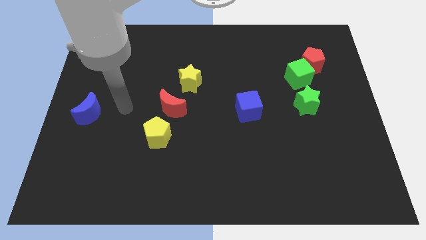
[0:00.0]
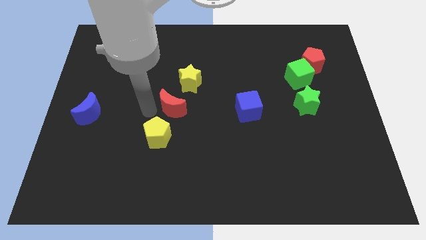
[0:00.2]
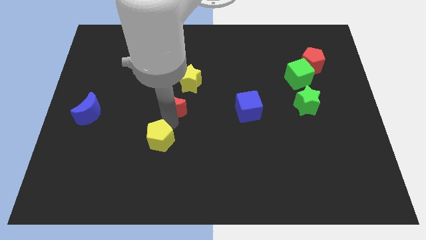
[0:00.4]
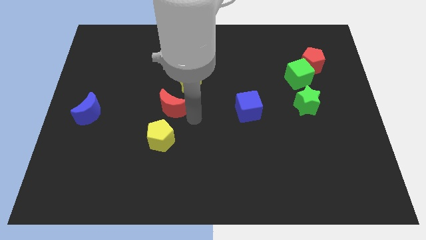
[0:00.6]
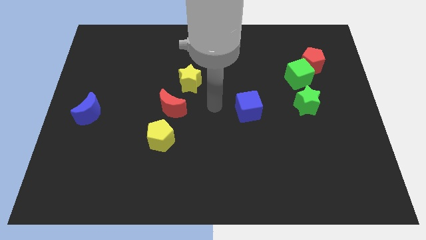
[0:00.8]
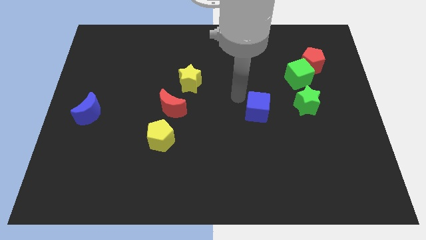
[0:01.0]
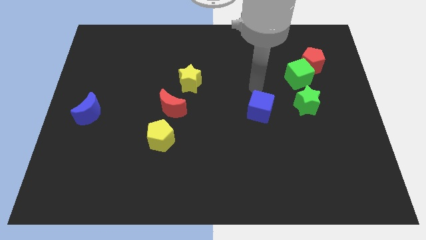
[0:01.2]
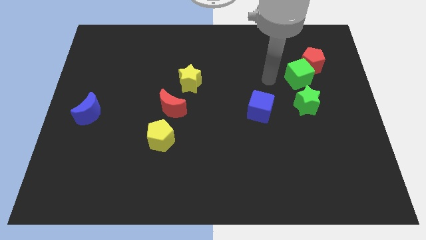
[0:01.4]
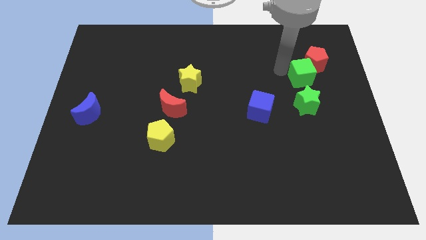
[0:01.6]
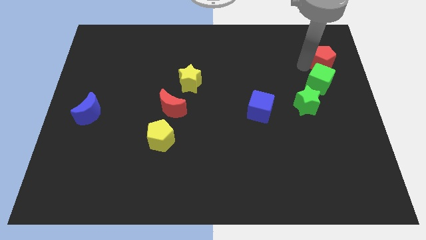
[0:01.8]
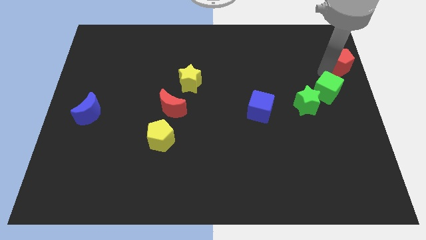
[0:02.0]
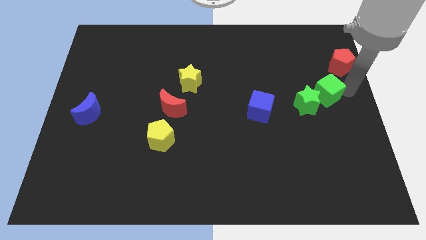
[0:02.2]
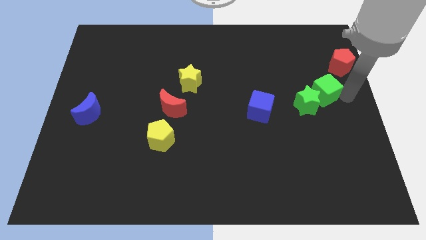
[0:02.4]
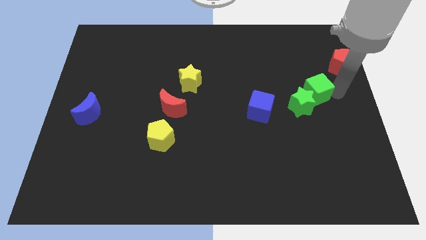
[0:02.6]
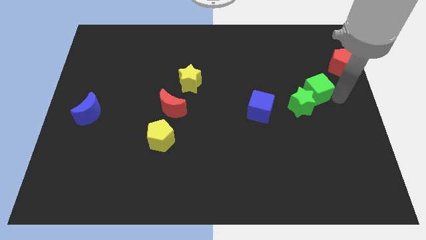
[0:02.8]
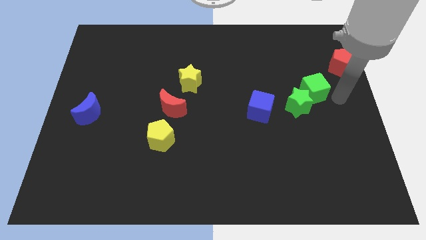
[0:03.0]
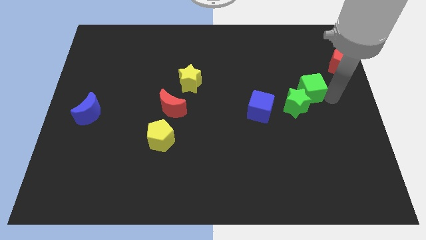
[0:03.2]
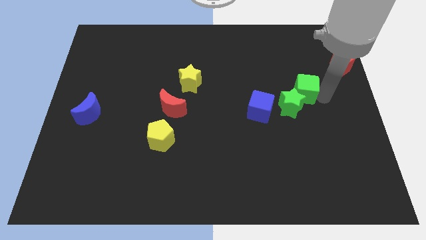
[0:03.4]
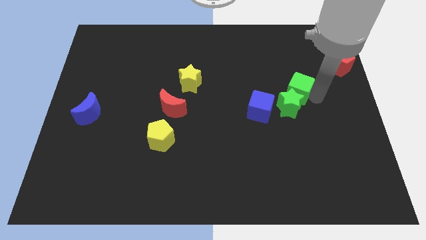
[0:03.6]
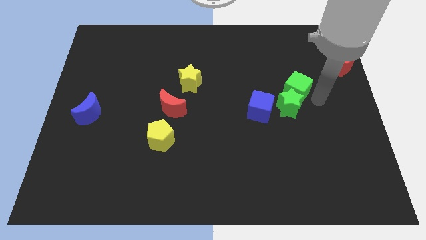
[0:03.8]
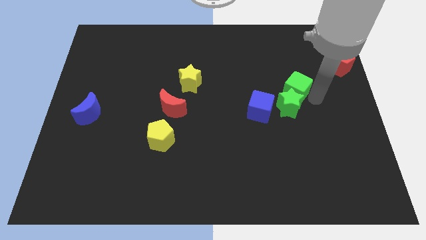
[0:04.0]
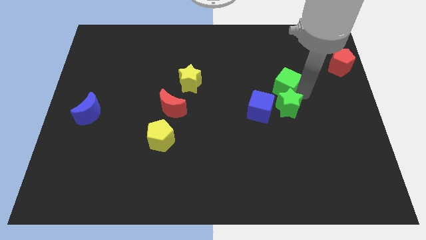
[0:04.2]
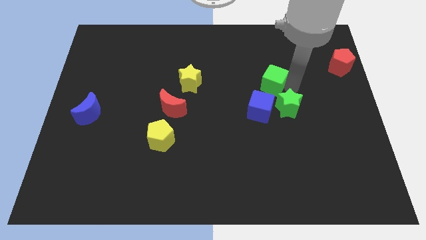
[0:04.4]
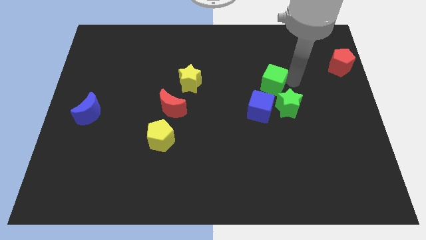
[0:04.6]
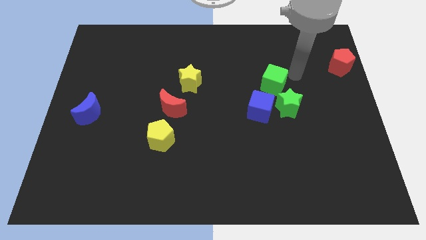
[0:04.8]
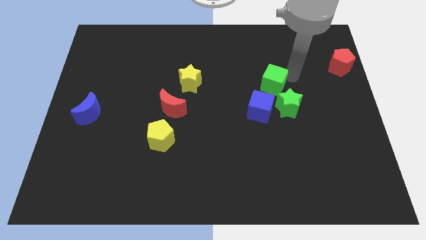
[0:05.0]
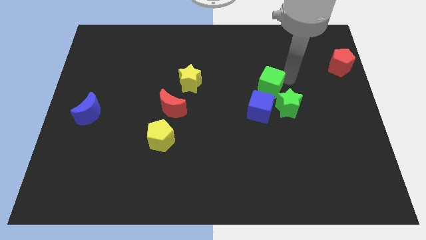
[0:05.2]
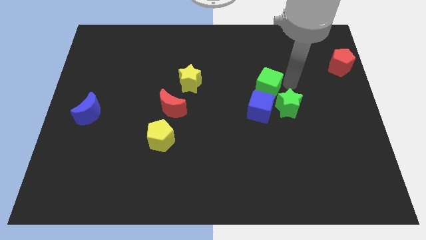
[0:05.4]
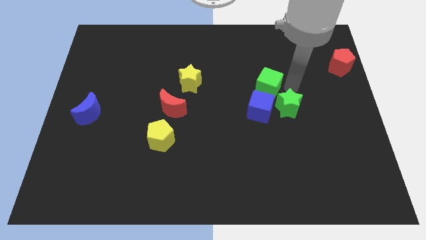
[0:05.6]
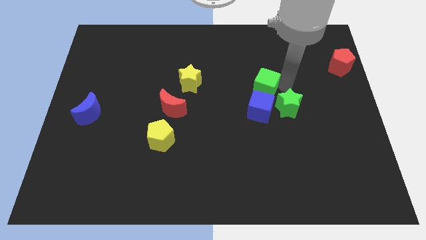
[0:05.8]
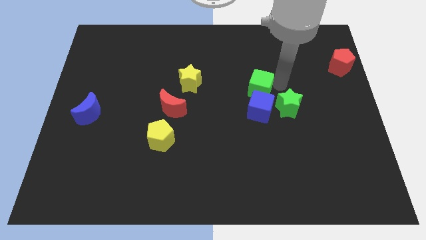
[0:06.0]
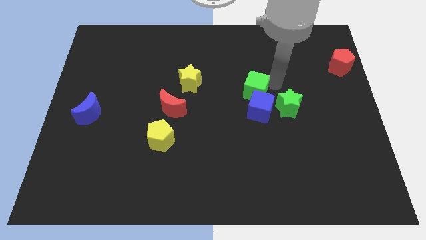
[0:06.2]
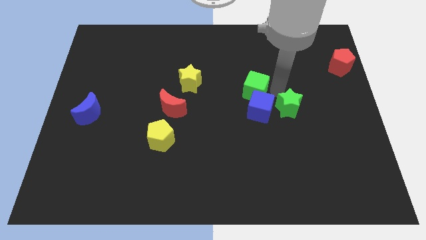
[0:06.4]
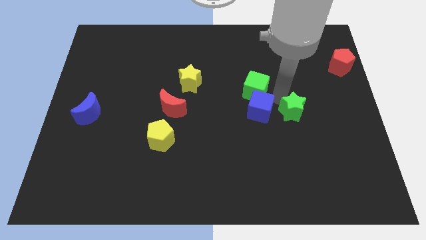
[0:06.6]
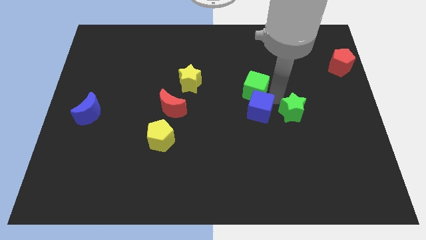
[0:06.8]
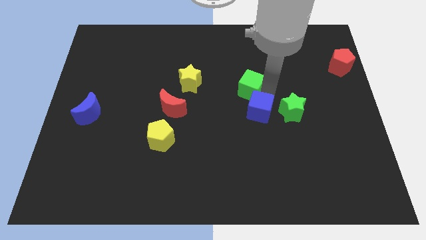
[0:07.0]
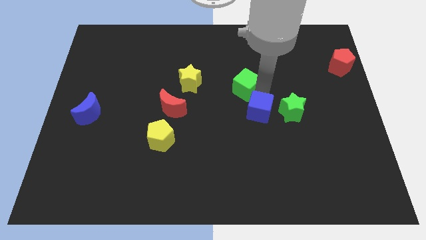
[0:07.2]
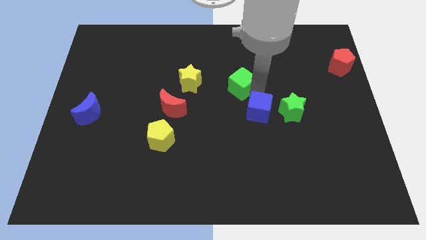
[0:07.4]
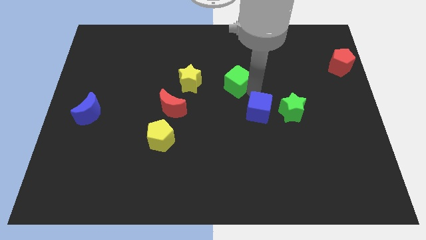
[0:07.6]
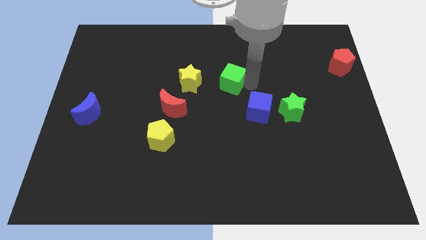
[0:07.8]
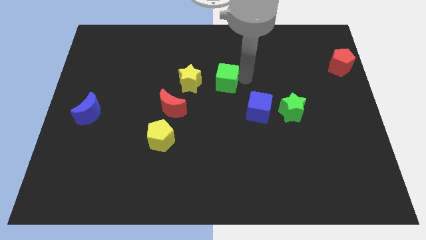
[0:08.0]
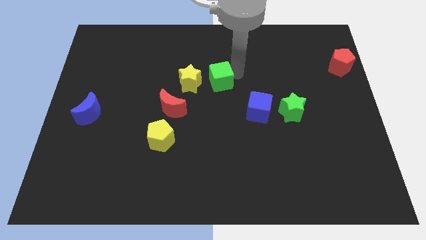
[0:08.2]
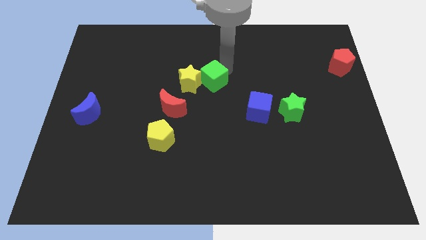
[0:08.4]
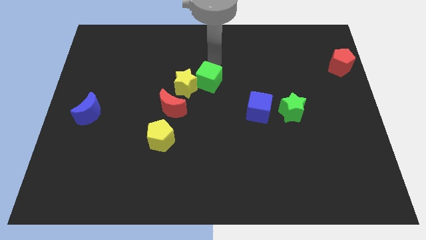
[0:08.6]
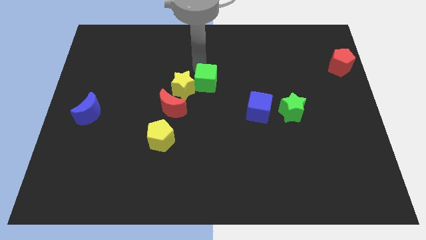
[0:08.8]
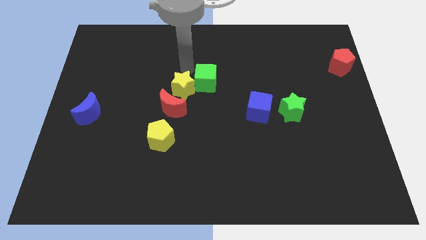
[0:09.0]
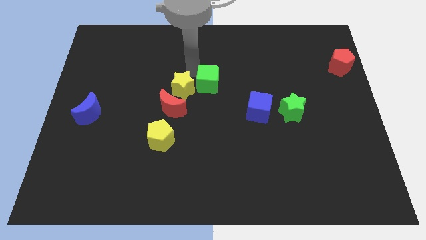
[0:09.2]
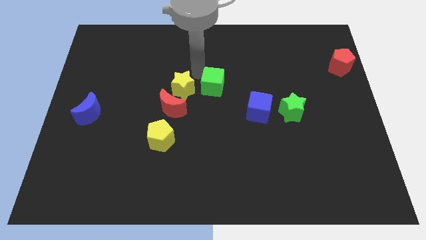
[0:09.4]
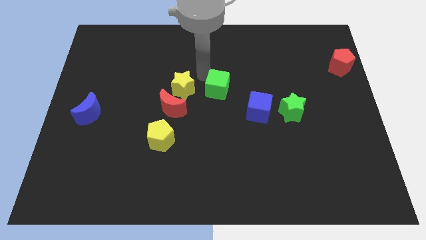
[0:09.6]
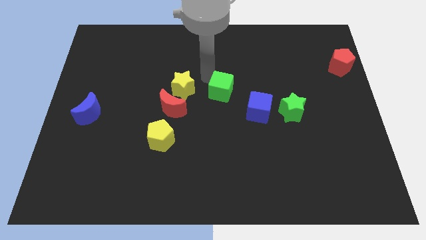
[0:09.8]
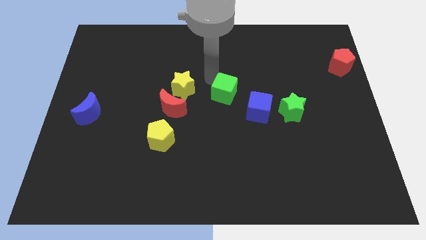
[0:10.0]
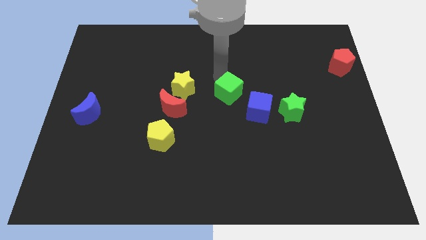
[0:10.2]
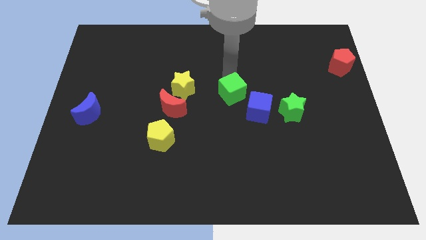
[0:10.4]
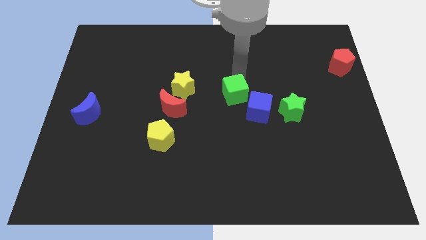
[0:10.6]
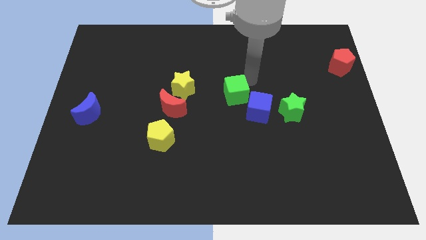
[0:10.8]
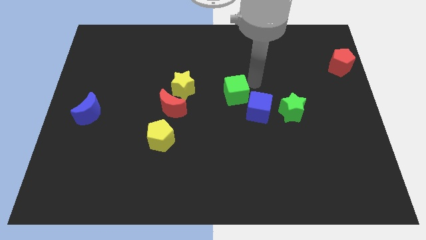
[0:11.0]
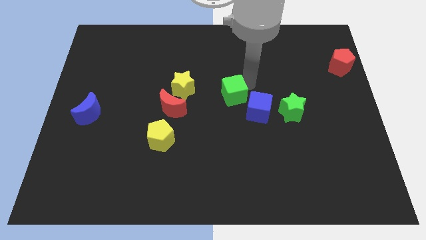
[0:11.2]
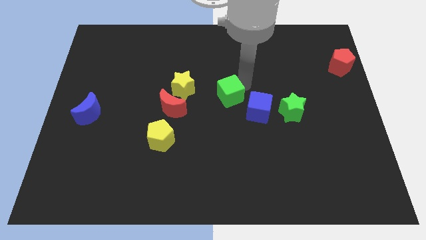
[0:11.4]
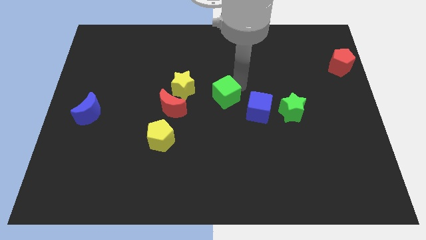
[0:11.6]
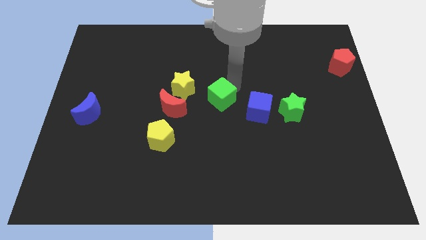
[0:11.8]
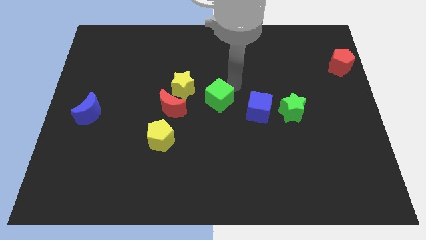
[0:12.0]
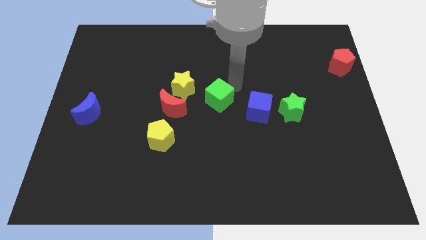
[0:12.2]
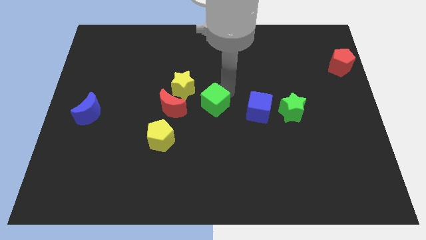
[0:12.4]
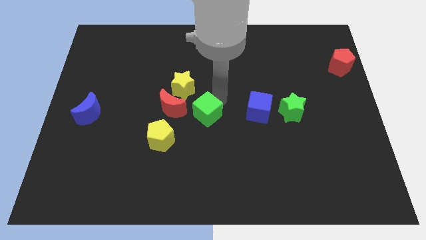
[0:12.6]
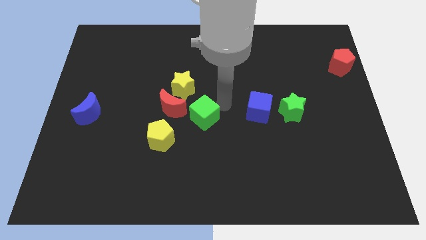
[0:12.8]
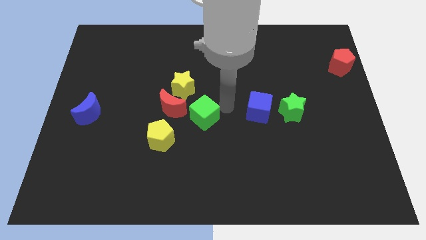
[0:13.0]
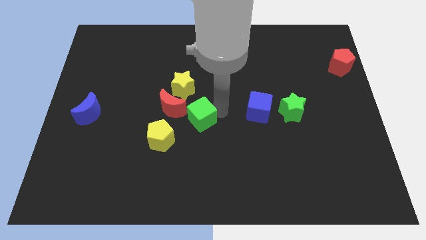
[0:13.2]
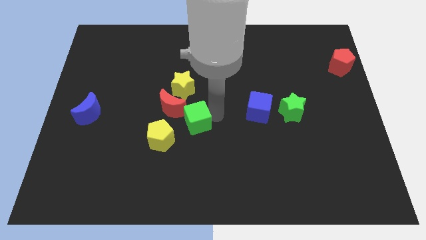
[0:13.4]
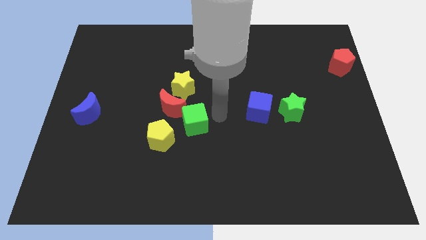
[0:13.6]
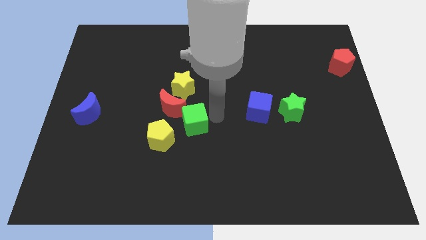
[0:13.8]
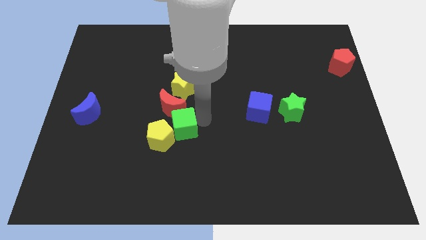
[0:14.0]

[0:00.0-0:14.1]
move the green cube close to the yellow pentagon

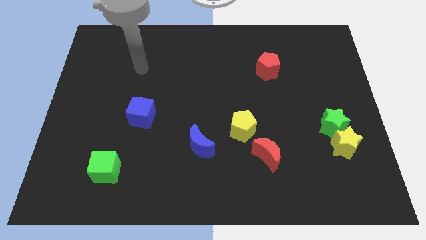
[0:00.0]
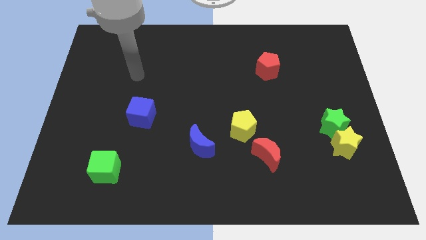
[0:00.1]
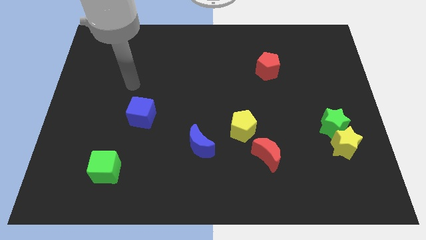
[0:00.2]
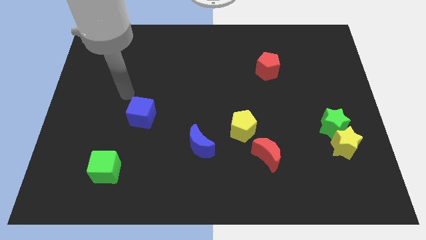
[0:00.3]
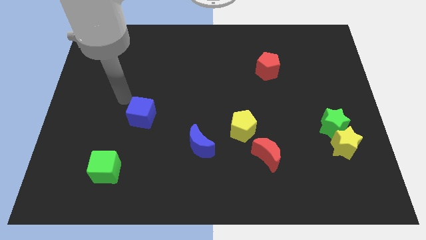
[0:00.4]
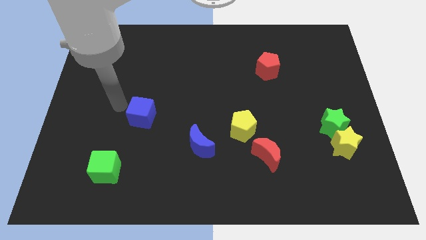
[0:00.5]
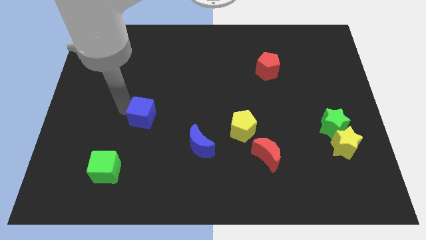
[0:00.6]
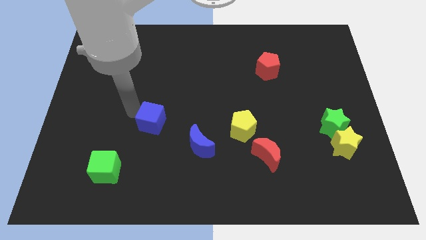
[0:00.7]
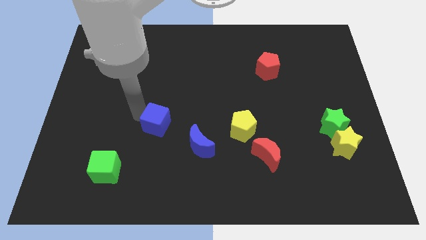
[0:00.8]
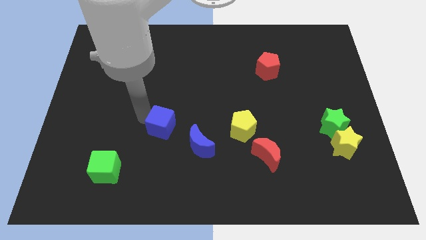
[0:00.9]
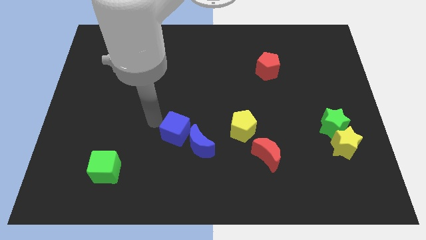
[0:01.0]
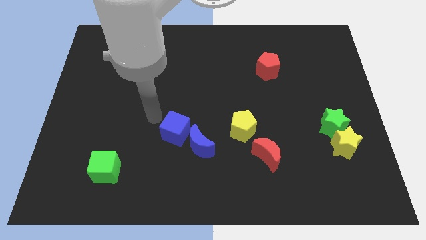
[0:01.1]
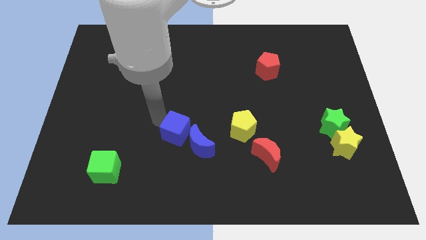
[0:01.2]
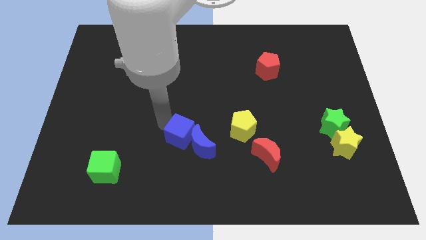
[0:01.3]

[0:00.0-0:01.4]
move the blue cube next to the blue moon
